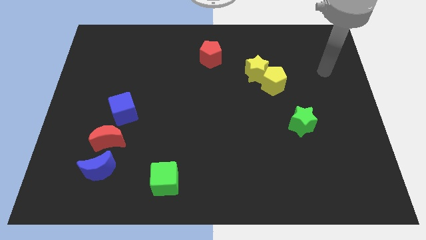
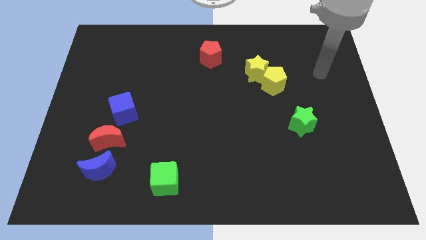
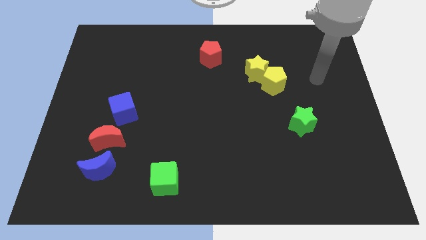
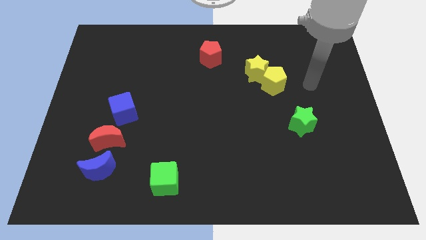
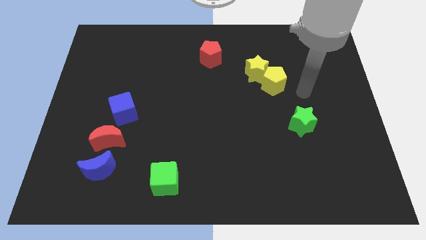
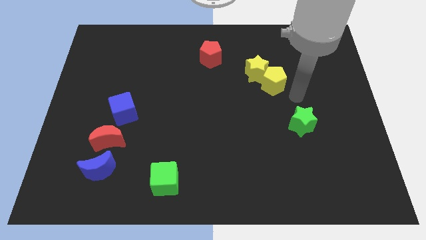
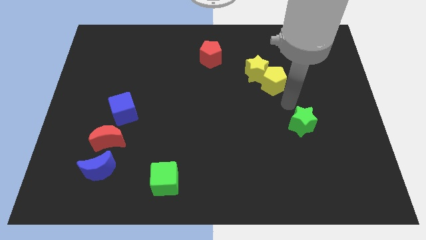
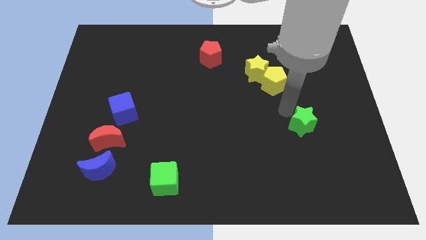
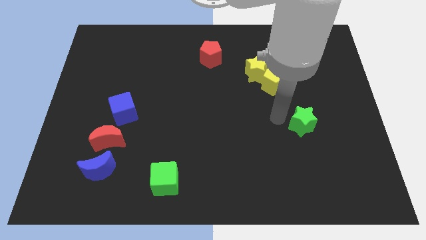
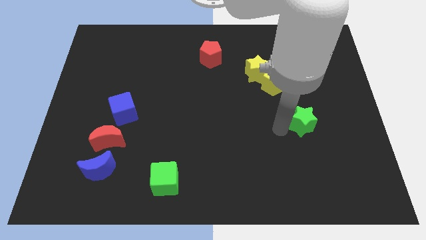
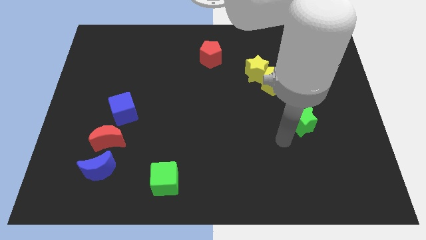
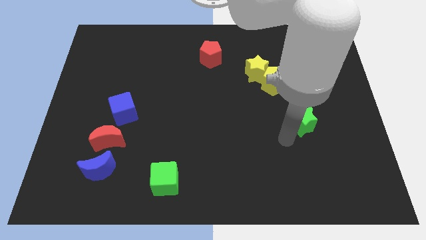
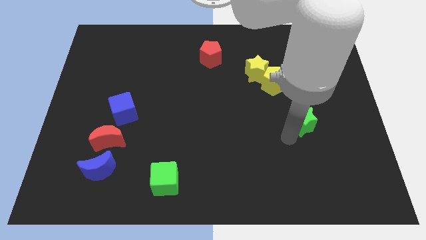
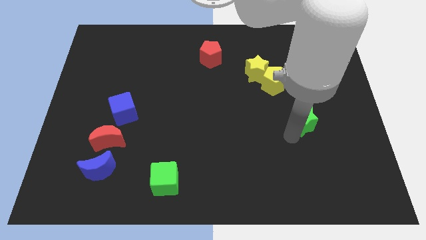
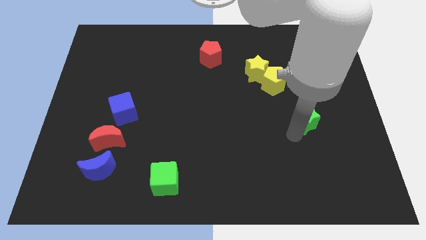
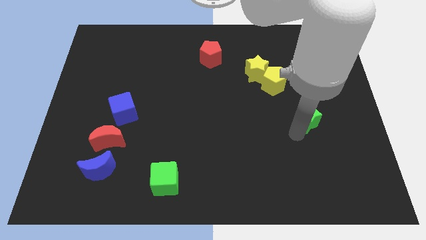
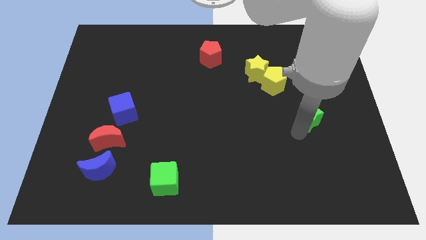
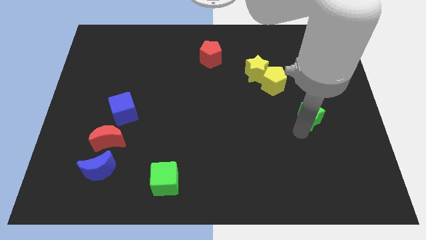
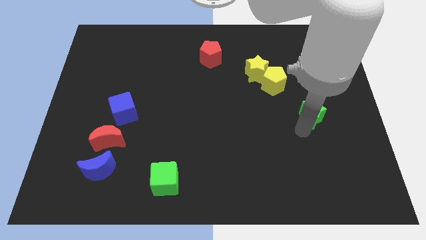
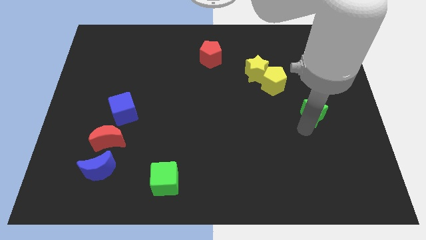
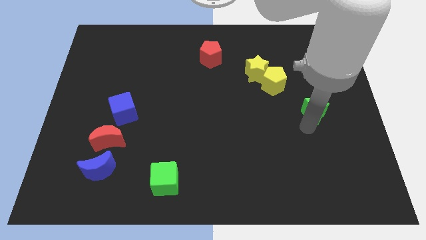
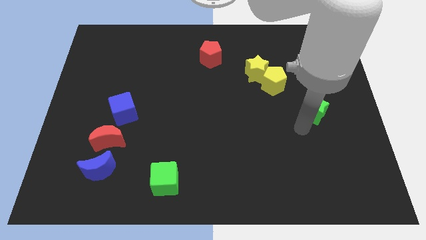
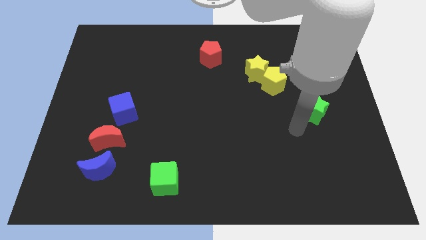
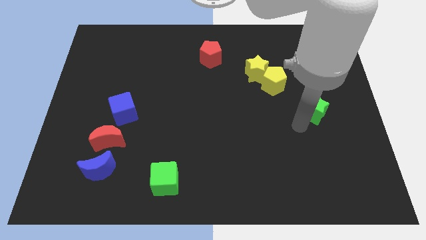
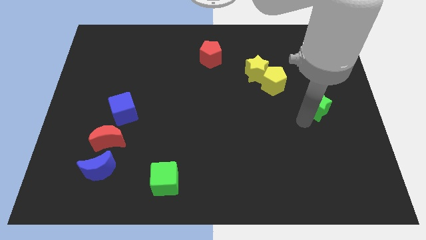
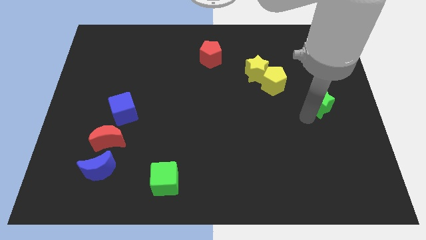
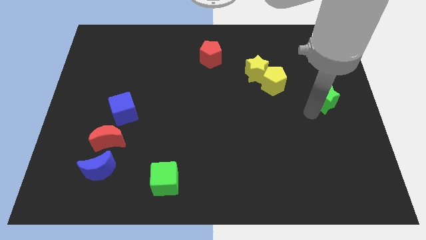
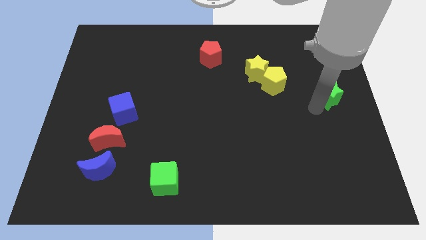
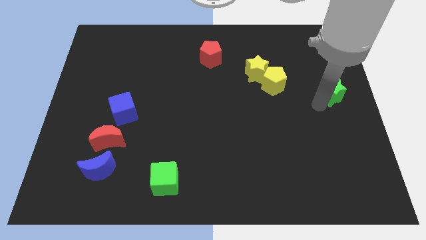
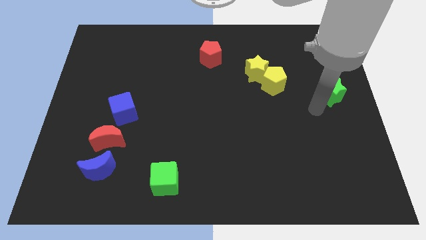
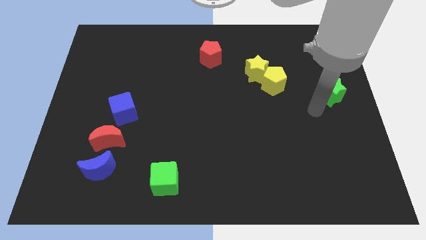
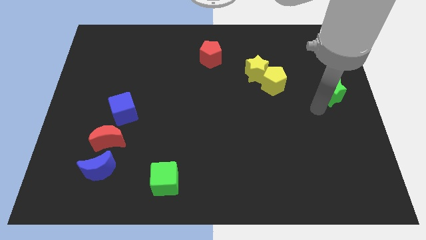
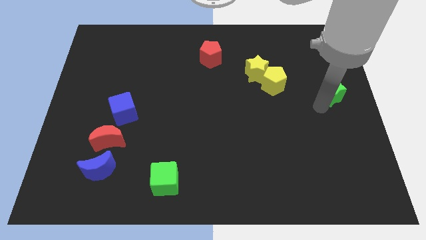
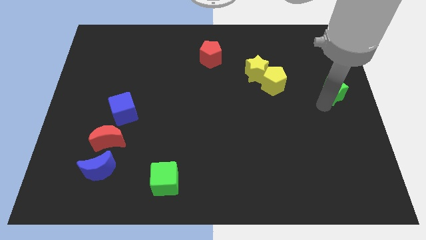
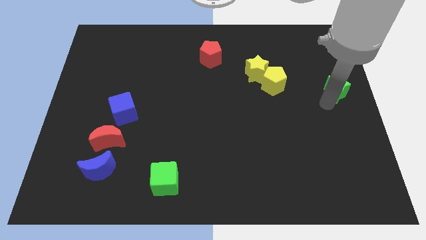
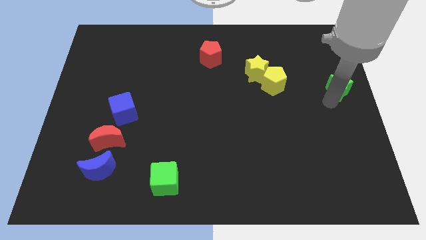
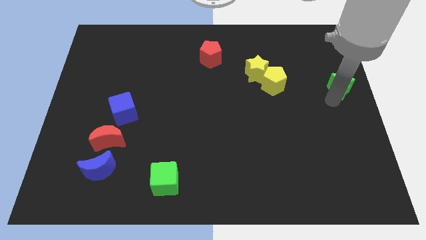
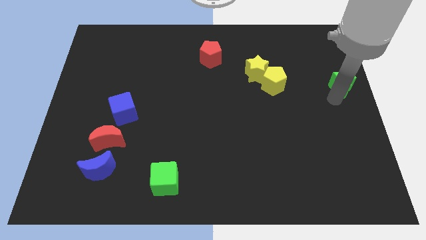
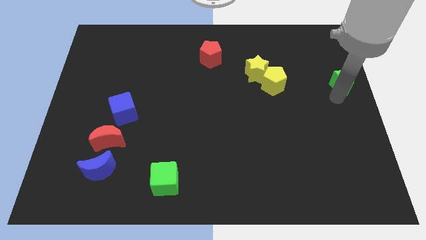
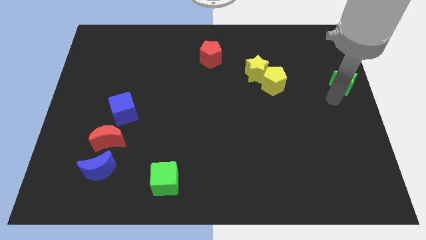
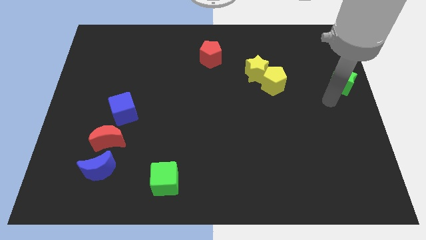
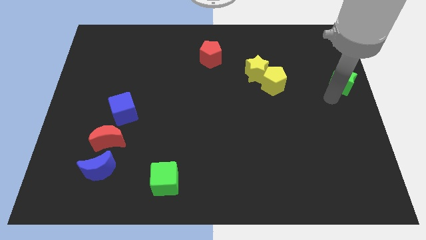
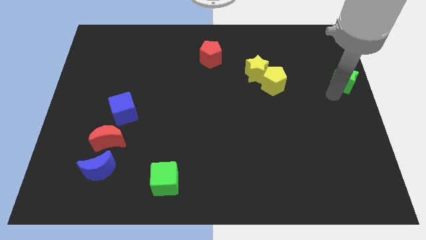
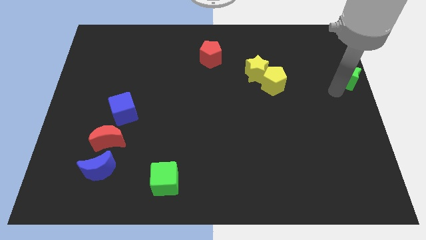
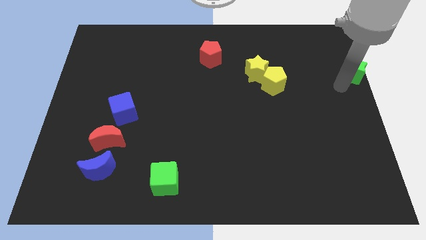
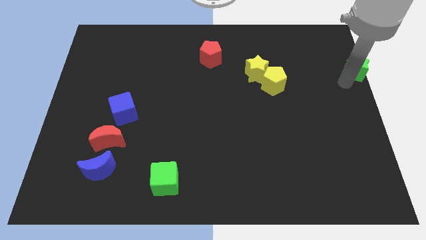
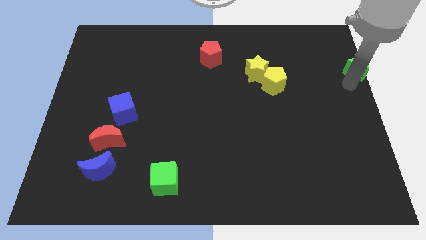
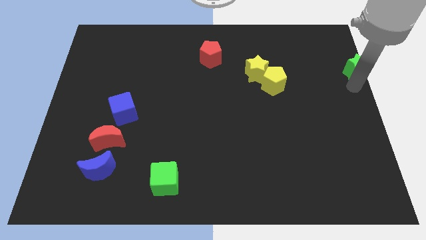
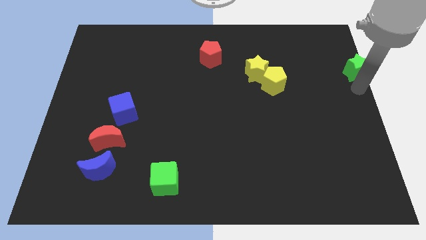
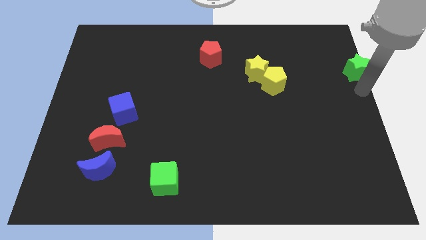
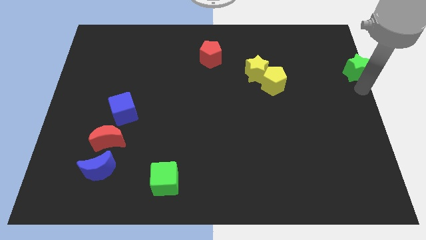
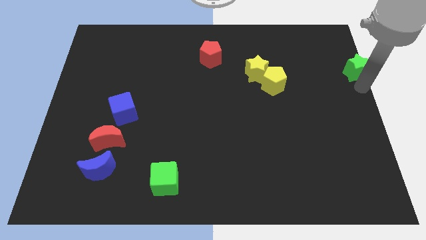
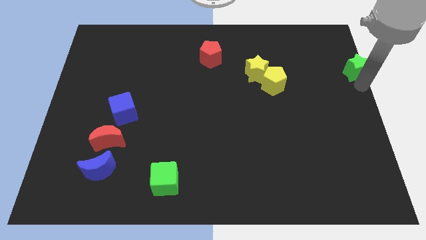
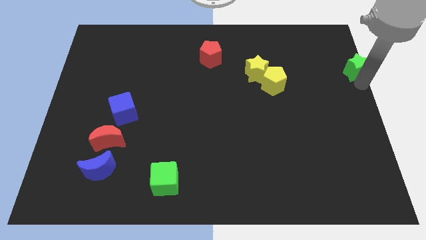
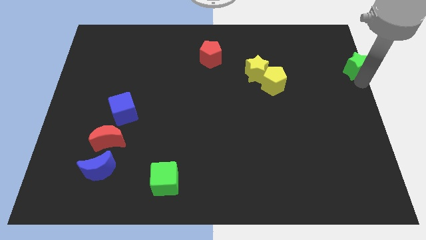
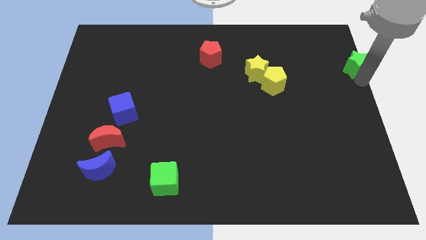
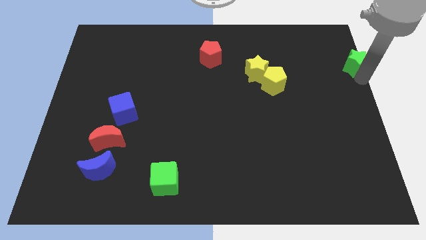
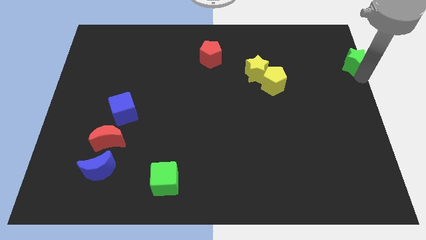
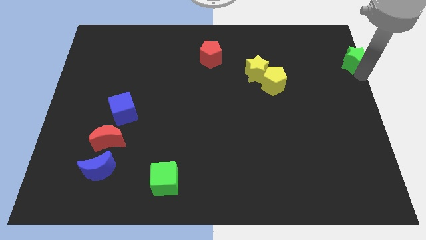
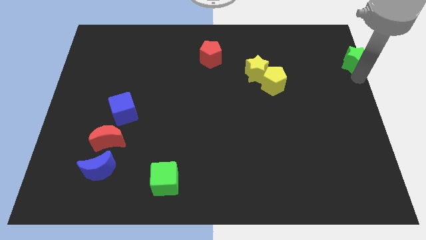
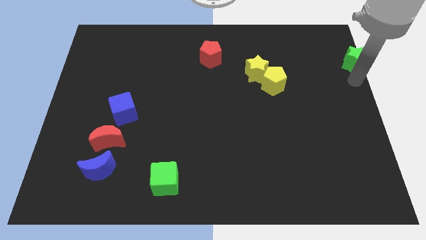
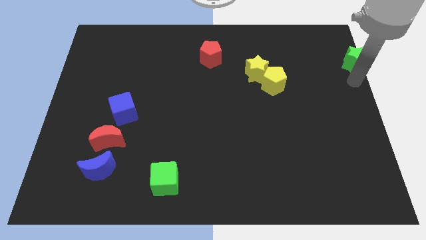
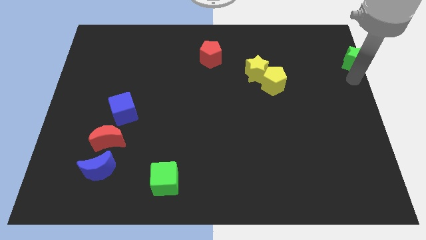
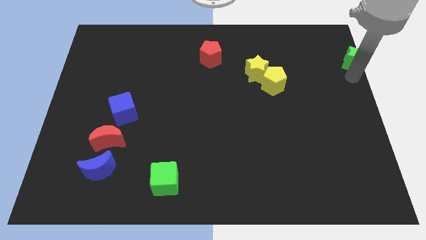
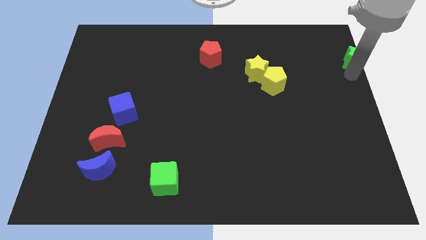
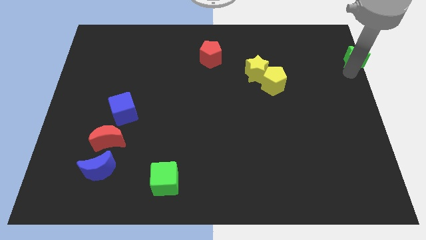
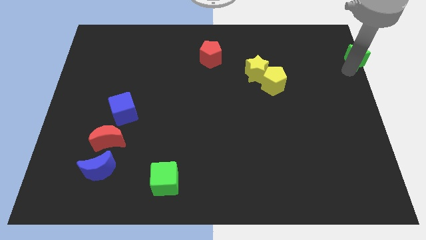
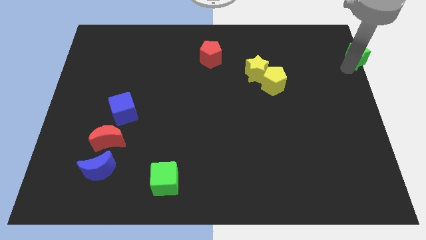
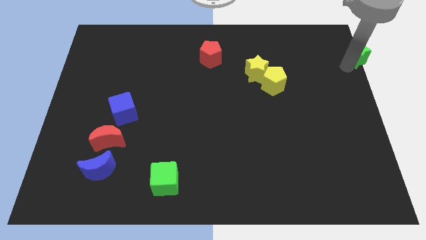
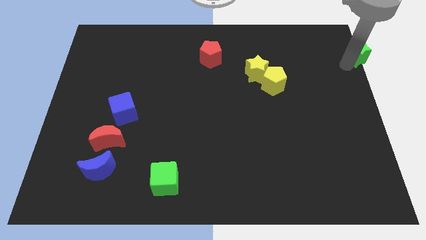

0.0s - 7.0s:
move the green star to the top right

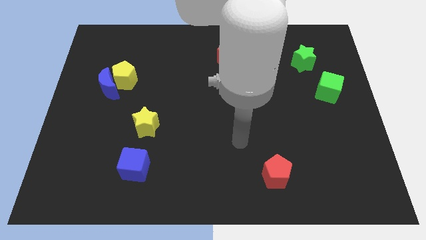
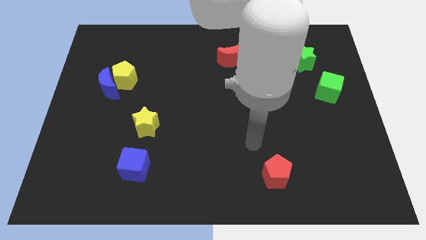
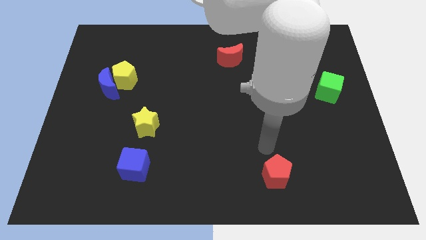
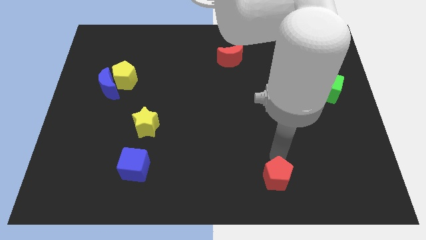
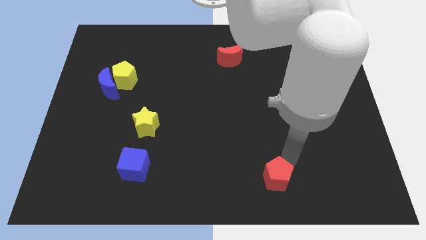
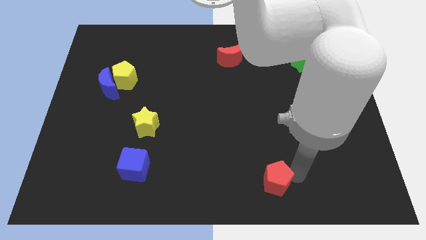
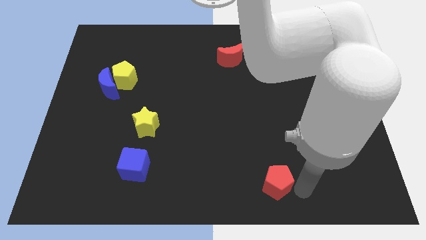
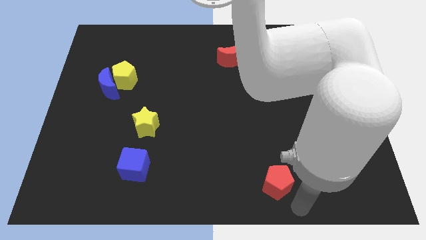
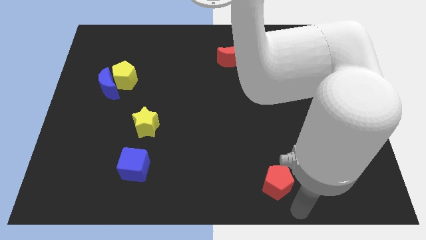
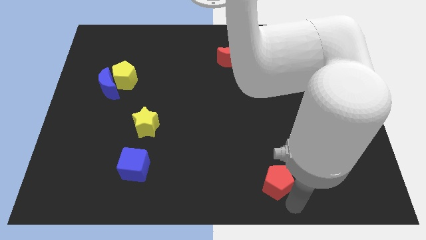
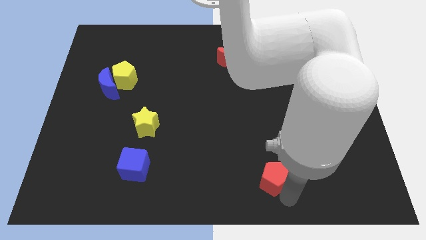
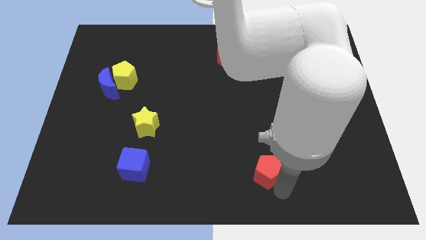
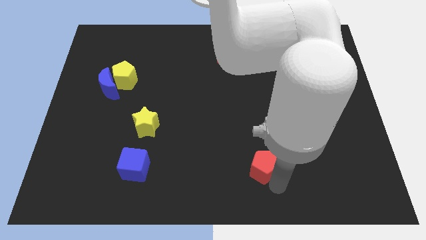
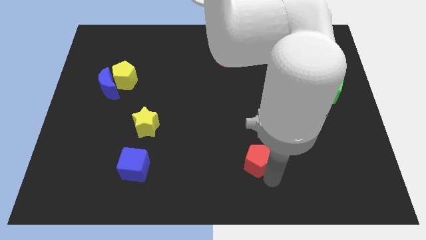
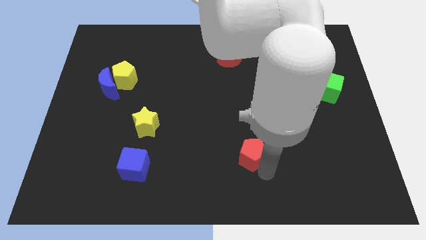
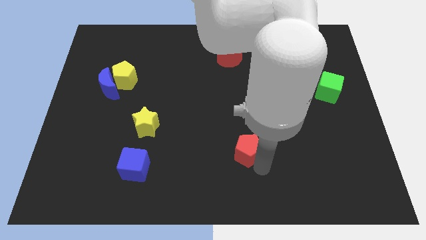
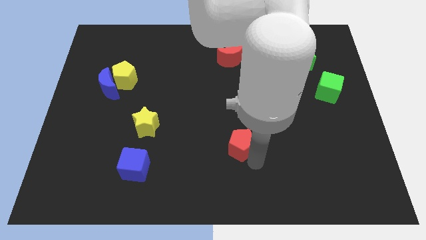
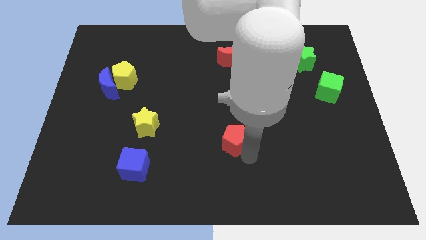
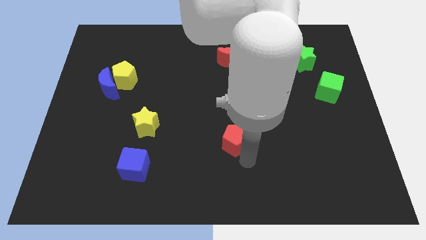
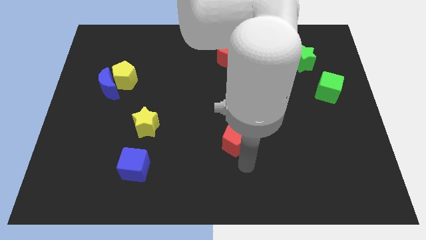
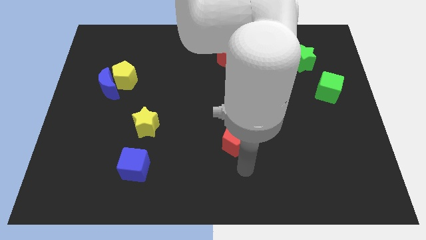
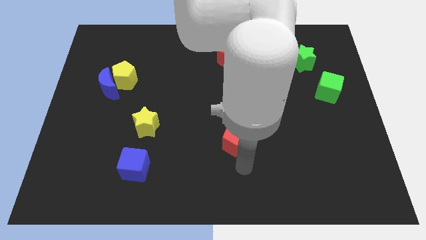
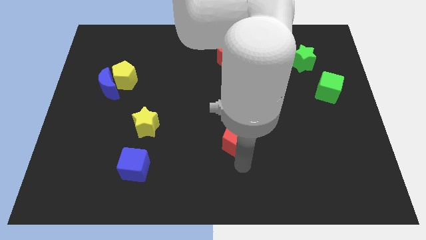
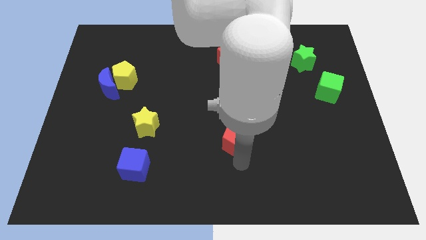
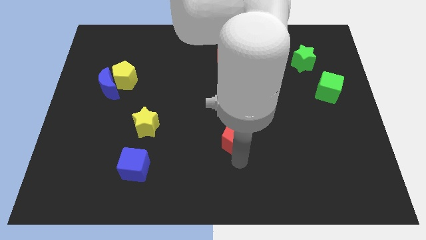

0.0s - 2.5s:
slide the red pentagon to the middle
